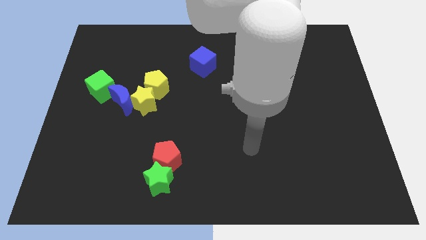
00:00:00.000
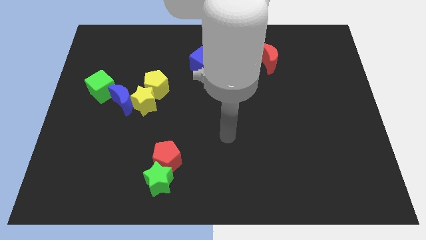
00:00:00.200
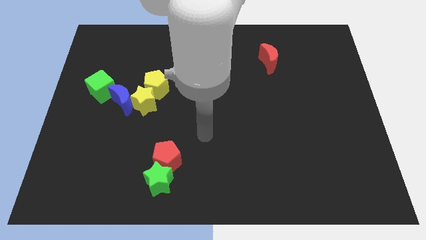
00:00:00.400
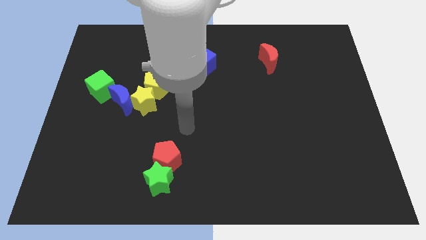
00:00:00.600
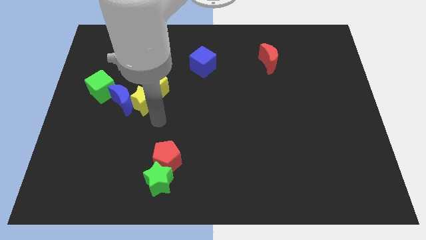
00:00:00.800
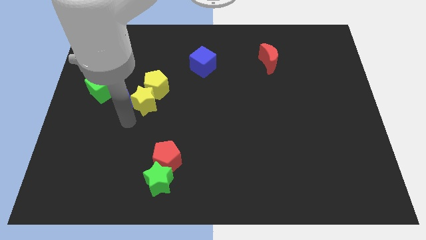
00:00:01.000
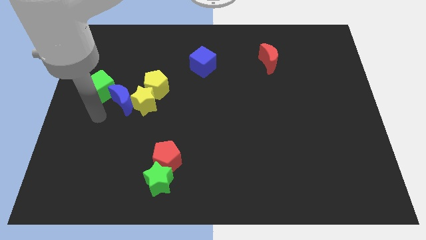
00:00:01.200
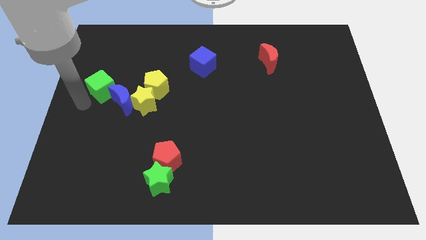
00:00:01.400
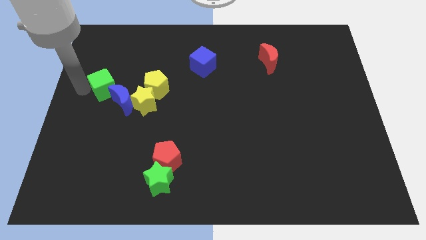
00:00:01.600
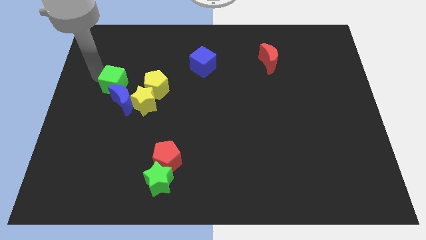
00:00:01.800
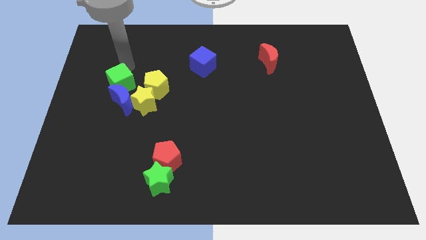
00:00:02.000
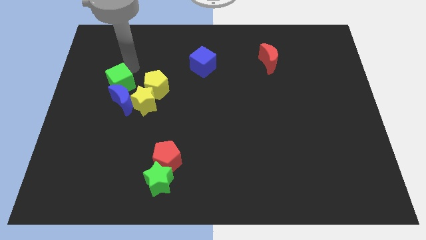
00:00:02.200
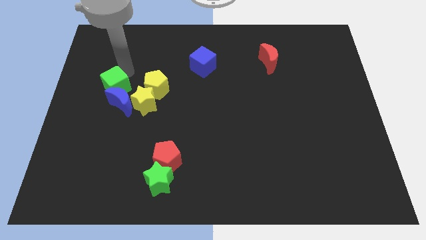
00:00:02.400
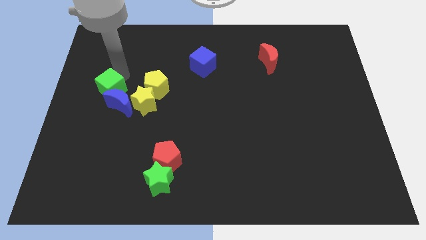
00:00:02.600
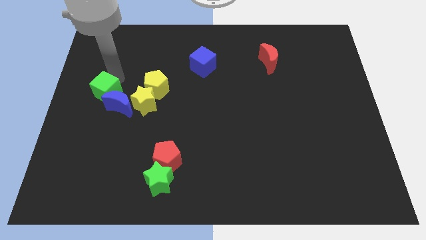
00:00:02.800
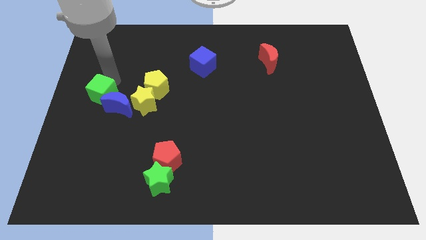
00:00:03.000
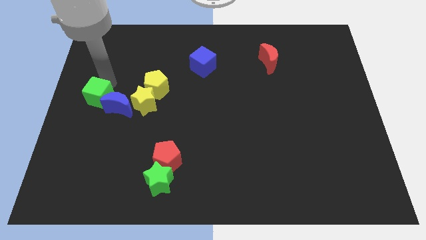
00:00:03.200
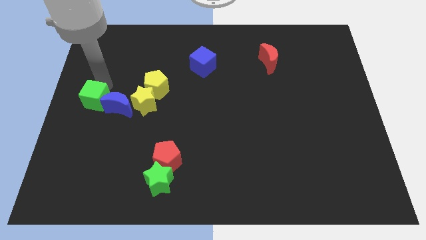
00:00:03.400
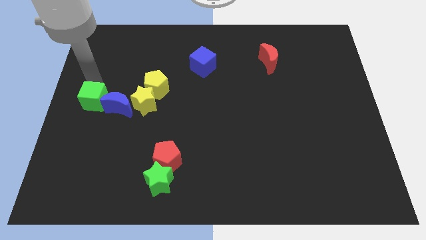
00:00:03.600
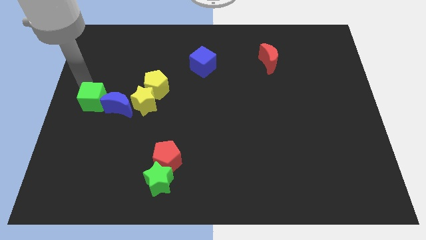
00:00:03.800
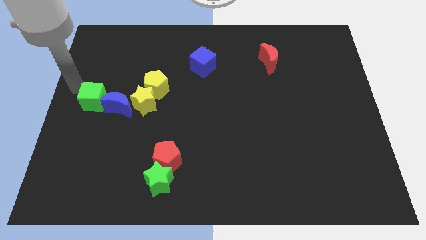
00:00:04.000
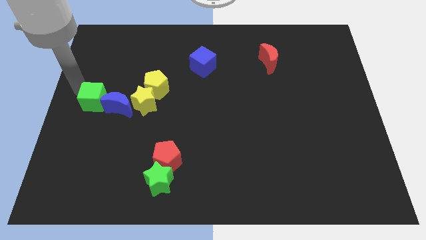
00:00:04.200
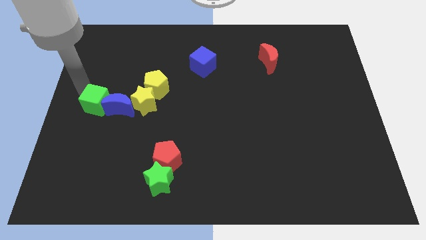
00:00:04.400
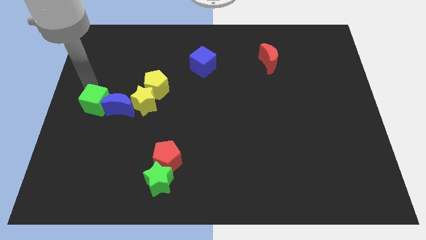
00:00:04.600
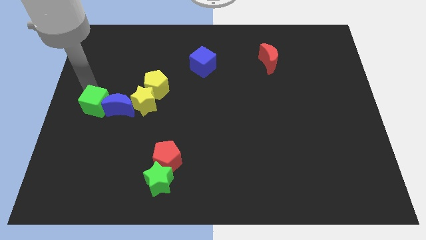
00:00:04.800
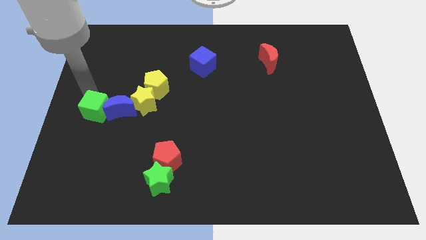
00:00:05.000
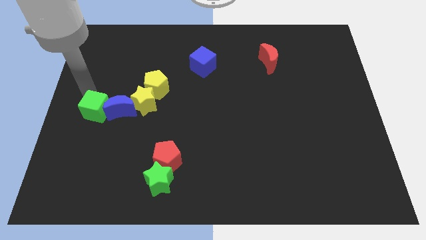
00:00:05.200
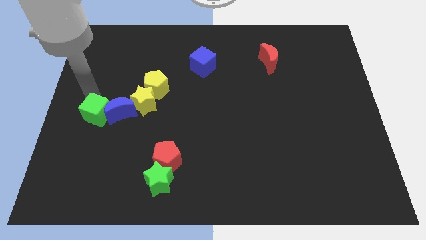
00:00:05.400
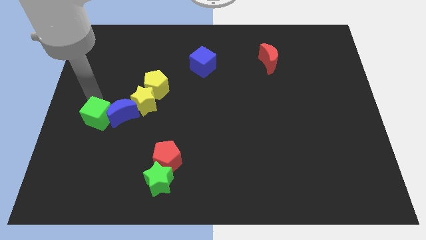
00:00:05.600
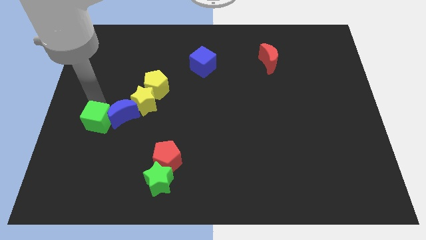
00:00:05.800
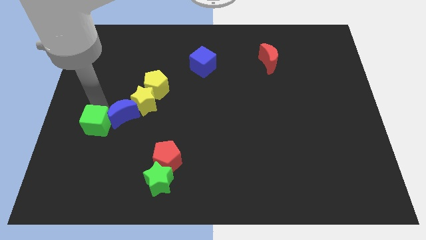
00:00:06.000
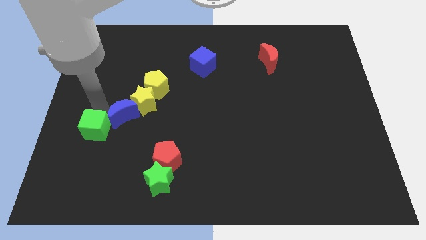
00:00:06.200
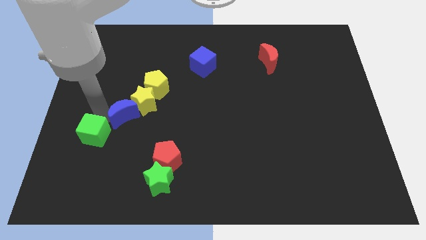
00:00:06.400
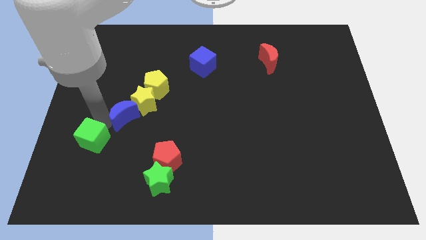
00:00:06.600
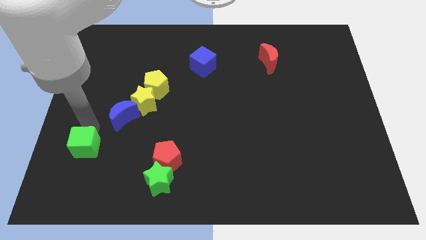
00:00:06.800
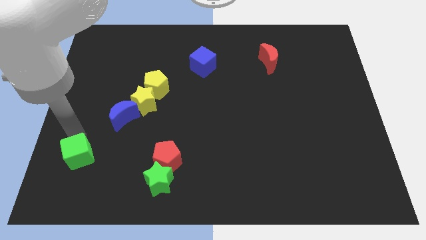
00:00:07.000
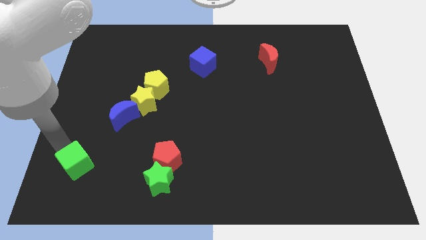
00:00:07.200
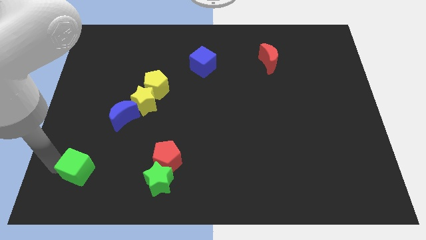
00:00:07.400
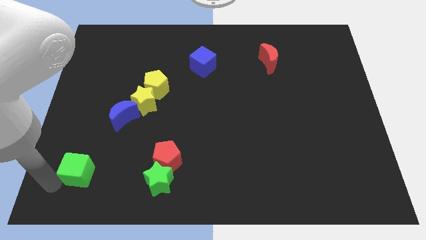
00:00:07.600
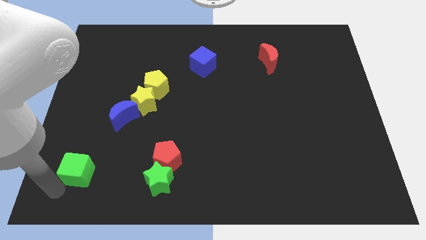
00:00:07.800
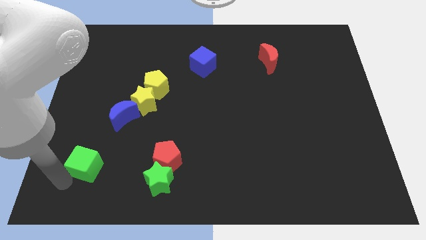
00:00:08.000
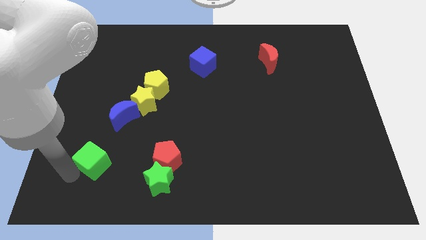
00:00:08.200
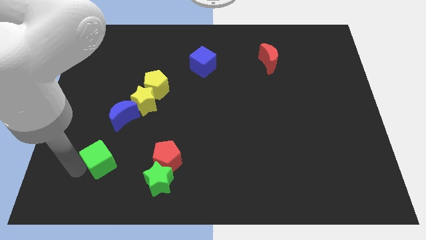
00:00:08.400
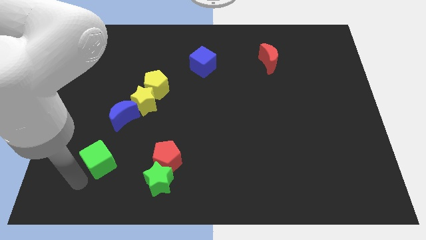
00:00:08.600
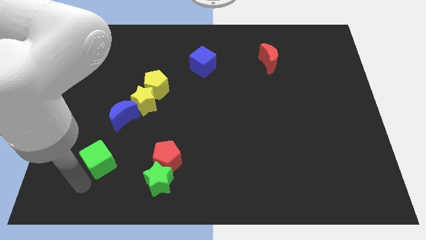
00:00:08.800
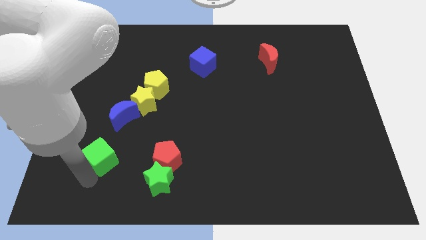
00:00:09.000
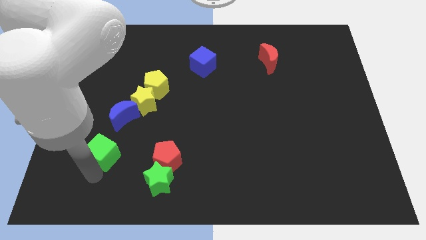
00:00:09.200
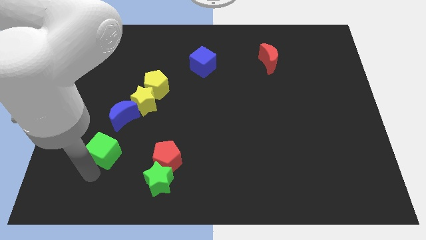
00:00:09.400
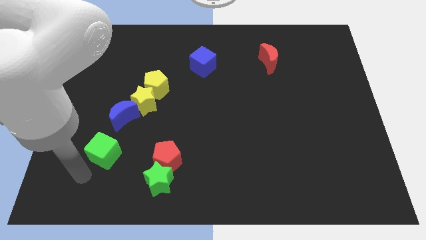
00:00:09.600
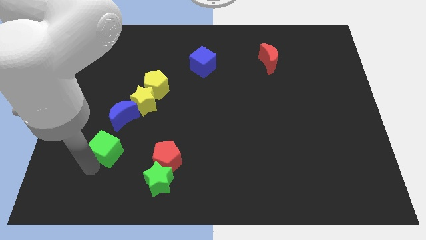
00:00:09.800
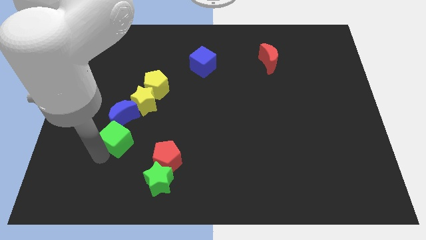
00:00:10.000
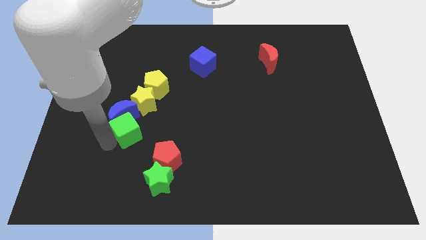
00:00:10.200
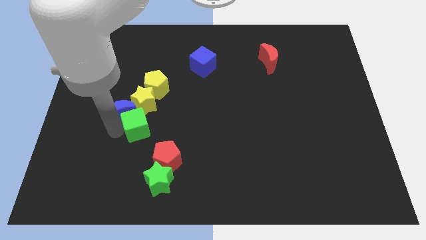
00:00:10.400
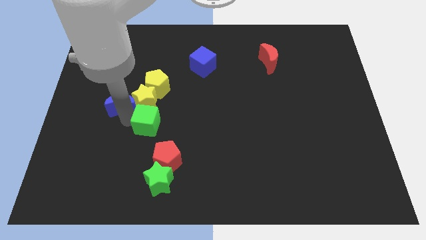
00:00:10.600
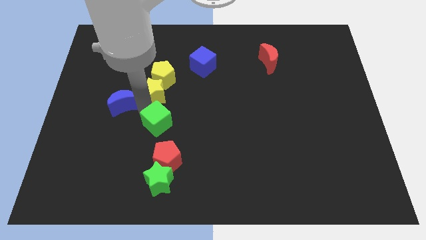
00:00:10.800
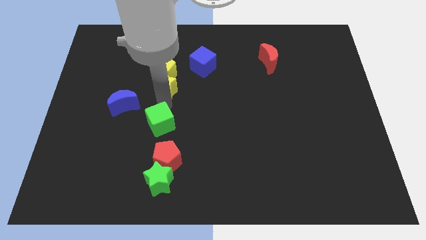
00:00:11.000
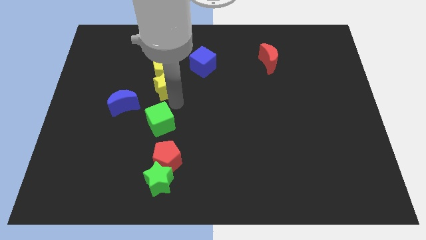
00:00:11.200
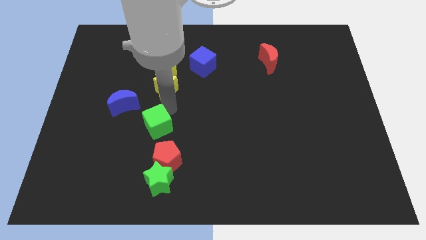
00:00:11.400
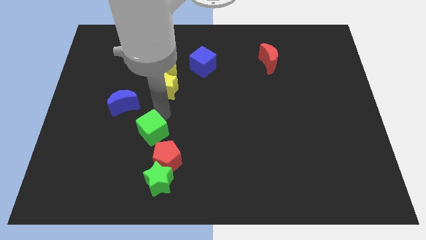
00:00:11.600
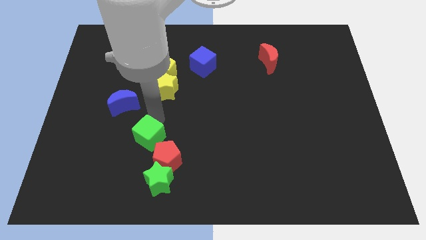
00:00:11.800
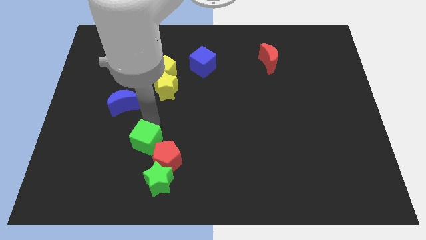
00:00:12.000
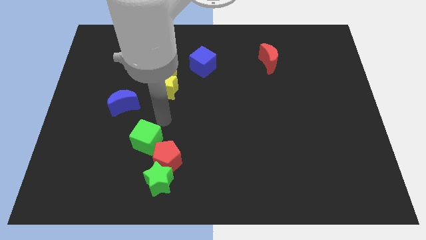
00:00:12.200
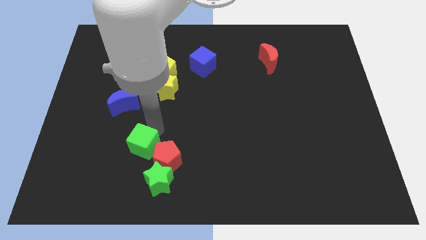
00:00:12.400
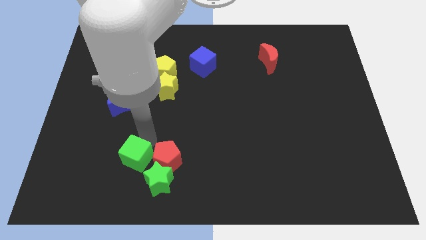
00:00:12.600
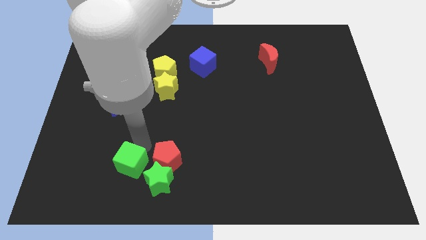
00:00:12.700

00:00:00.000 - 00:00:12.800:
push the green cube to the bottom left side of the red pentagon

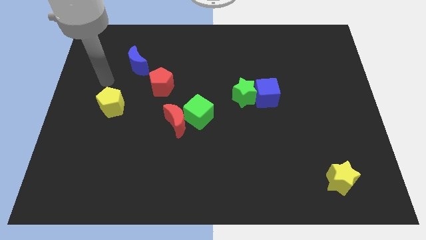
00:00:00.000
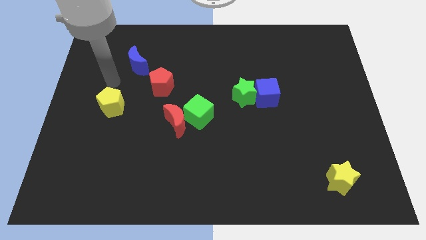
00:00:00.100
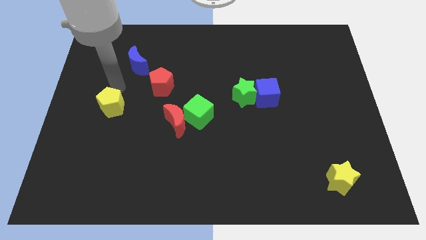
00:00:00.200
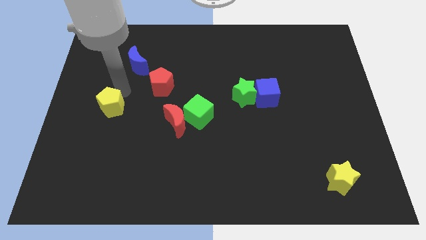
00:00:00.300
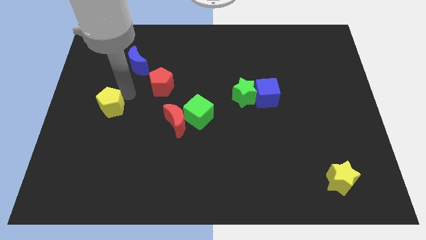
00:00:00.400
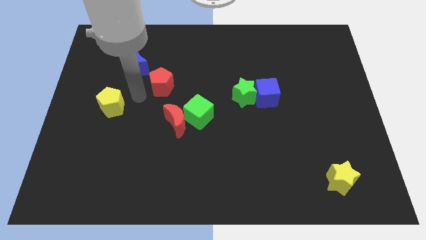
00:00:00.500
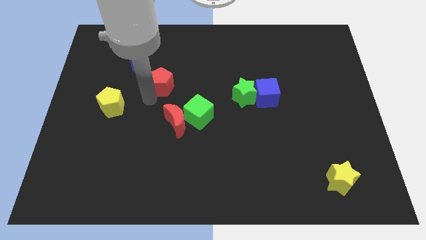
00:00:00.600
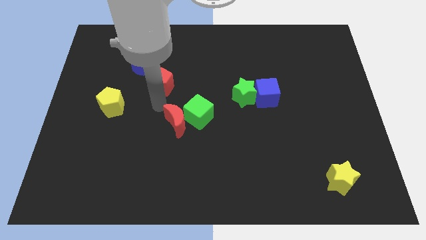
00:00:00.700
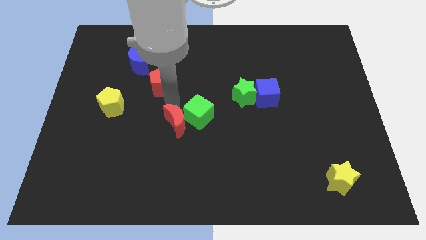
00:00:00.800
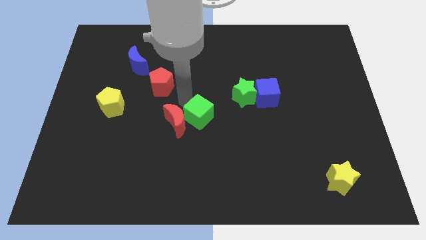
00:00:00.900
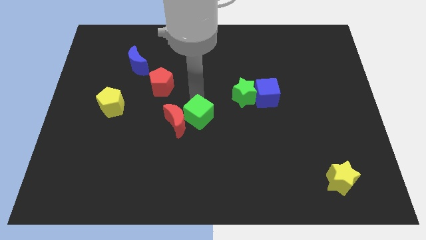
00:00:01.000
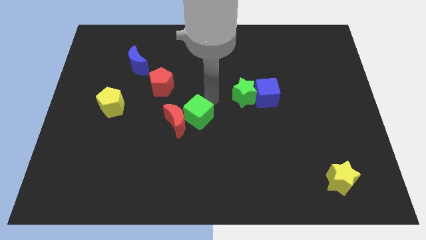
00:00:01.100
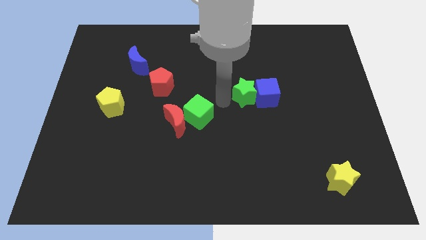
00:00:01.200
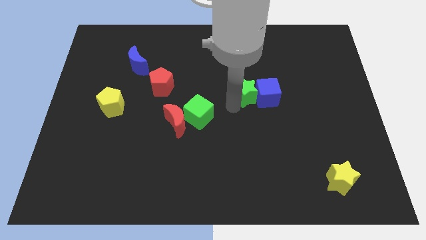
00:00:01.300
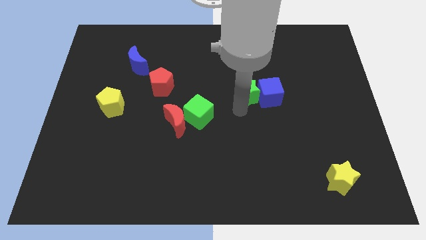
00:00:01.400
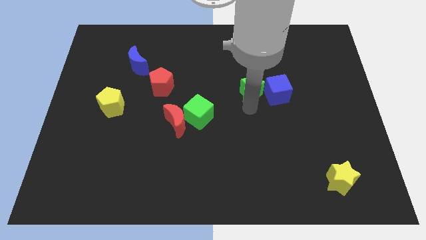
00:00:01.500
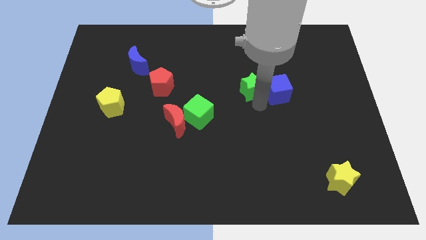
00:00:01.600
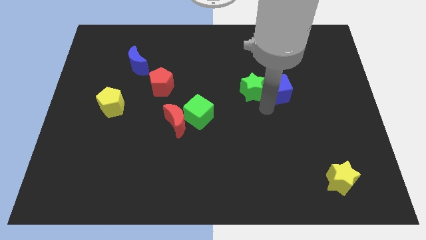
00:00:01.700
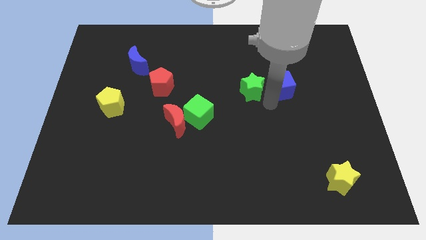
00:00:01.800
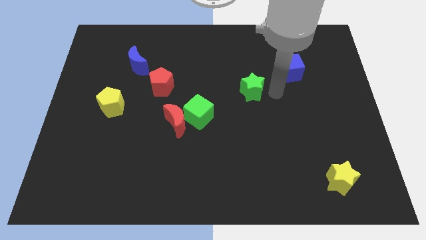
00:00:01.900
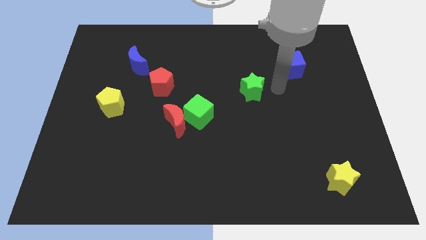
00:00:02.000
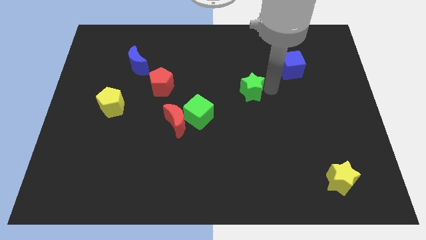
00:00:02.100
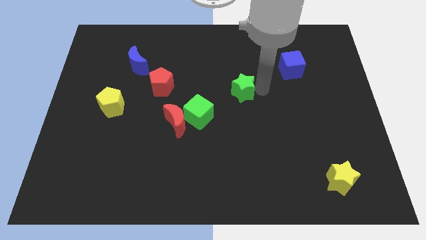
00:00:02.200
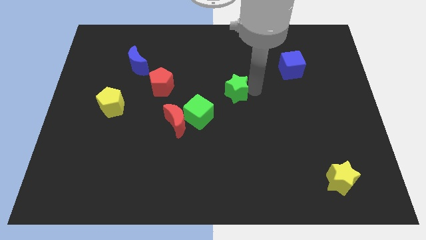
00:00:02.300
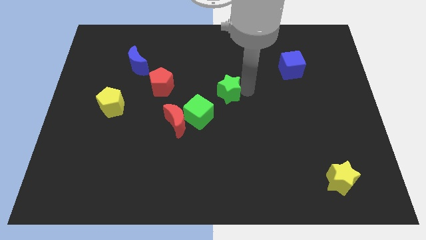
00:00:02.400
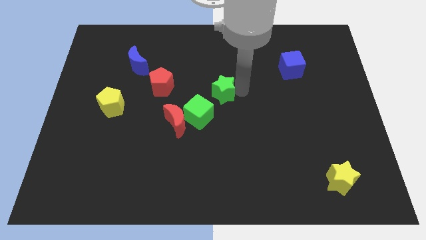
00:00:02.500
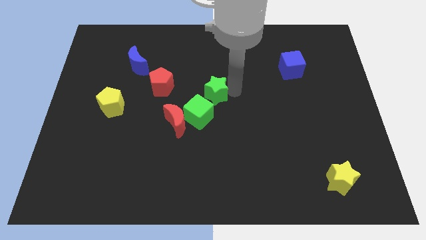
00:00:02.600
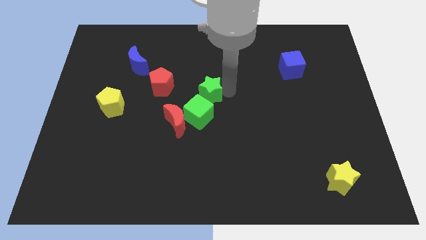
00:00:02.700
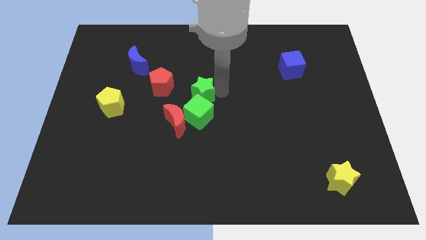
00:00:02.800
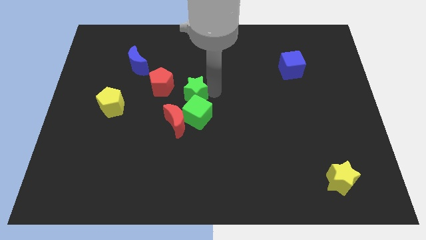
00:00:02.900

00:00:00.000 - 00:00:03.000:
slide the green star to the bottom right of the red pentagon
